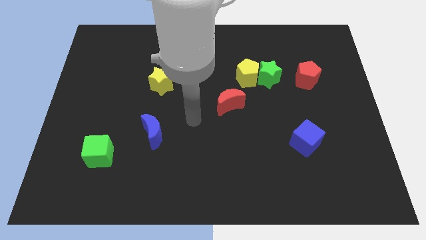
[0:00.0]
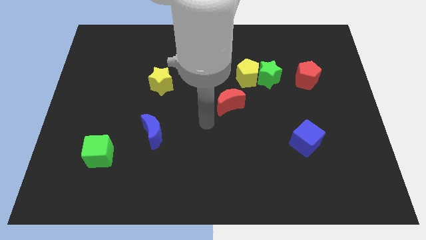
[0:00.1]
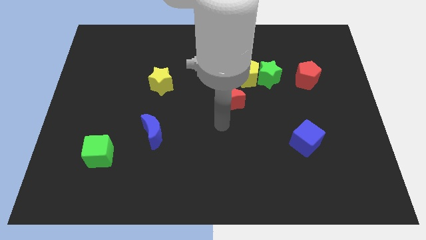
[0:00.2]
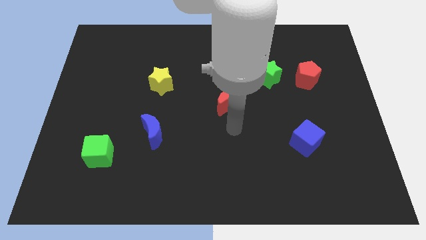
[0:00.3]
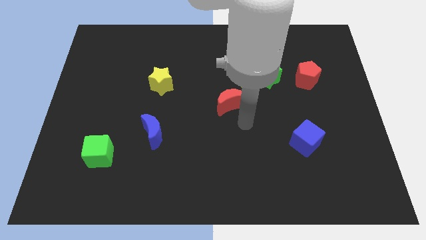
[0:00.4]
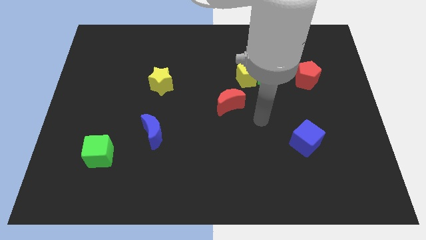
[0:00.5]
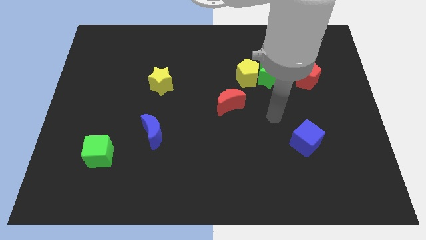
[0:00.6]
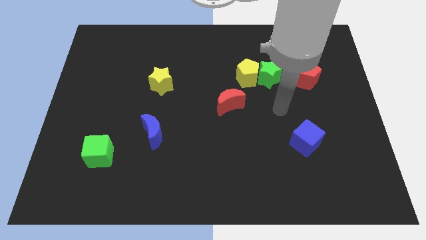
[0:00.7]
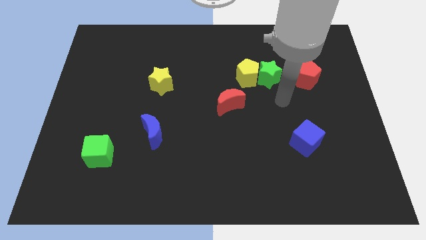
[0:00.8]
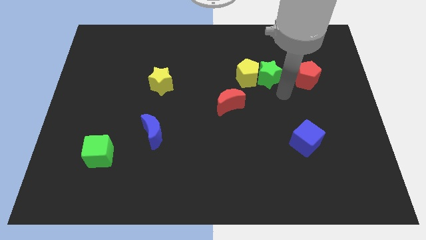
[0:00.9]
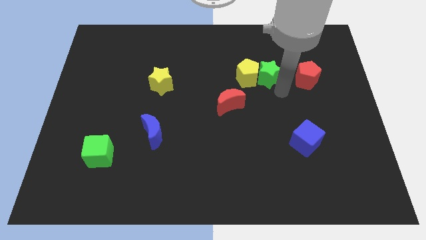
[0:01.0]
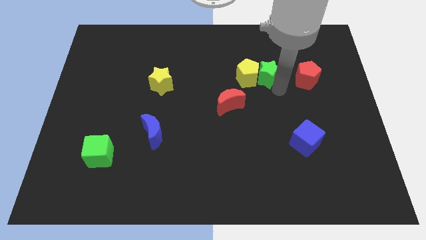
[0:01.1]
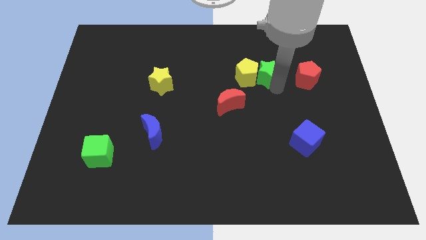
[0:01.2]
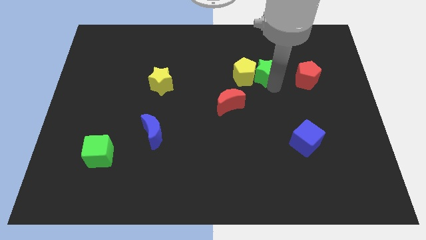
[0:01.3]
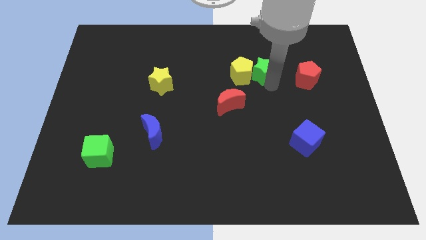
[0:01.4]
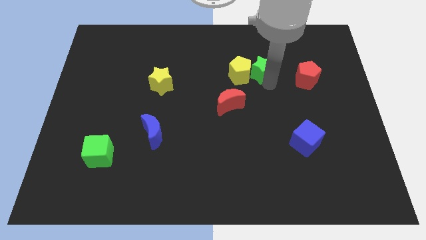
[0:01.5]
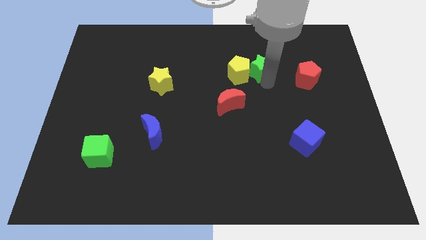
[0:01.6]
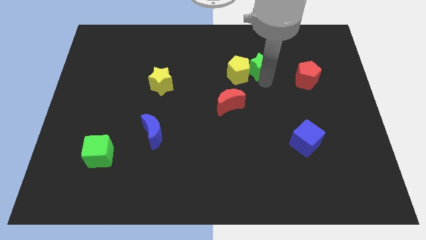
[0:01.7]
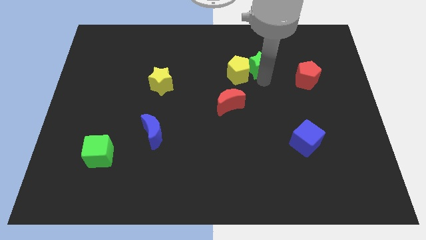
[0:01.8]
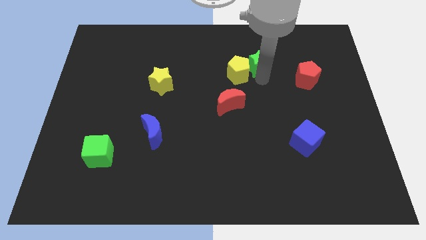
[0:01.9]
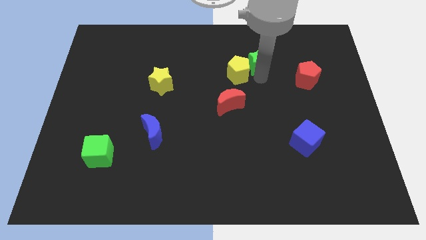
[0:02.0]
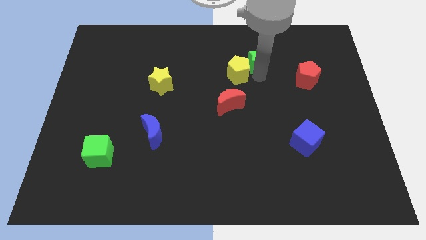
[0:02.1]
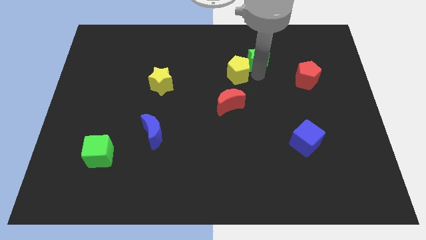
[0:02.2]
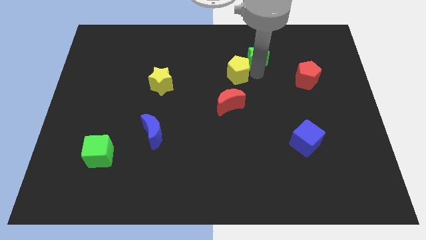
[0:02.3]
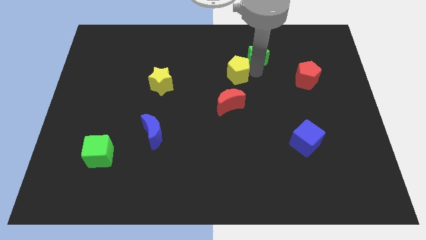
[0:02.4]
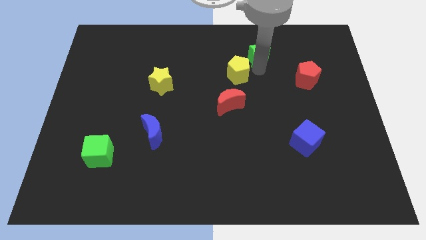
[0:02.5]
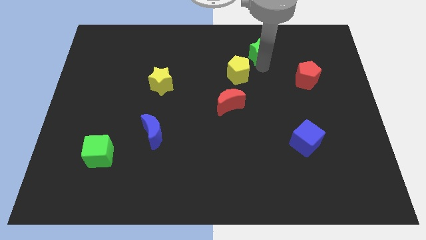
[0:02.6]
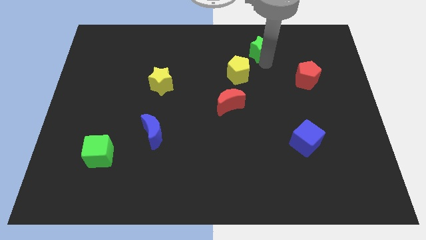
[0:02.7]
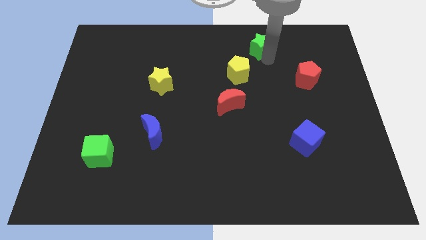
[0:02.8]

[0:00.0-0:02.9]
separate the green star from the yellow pentagon and red pentagon

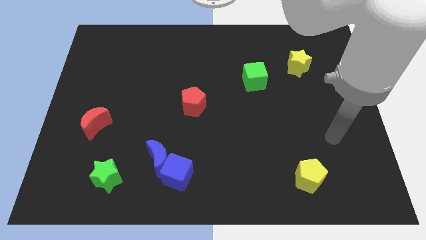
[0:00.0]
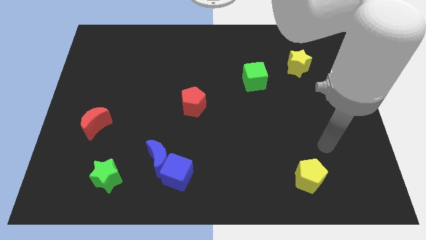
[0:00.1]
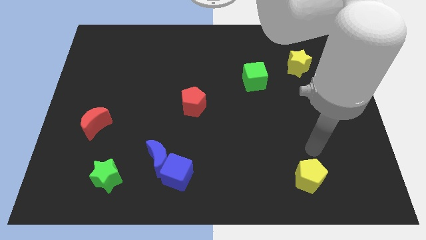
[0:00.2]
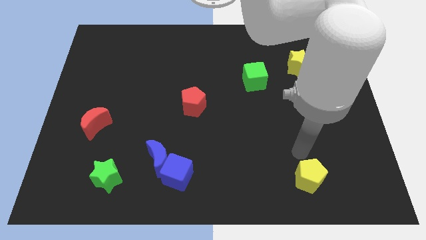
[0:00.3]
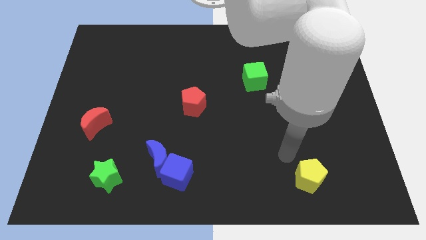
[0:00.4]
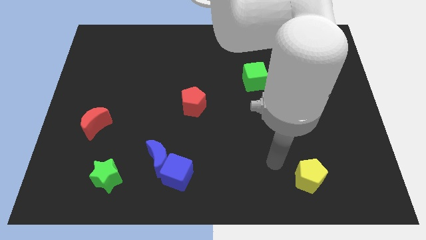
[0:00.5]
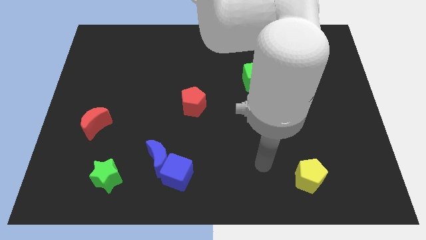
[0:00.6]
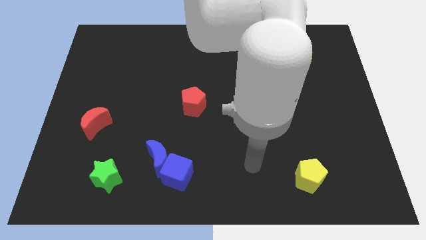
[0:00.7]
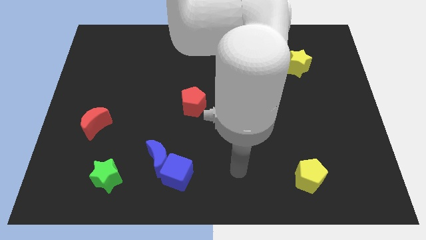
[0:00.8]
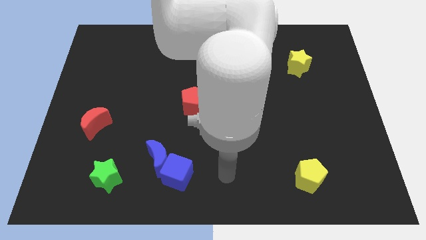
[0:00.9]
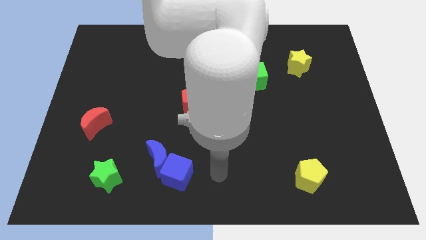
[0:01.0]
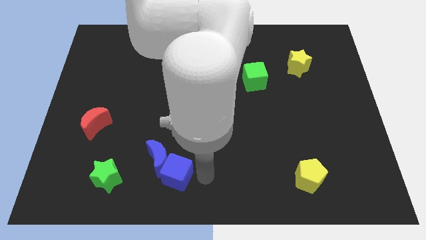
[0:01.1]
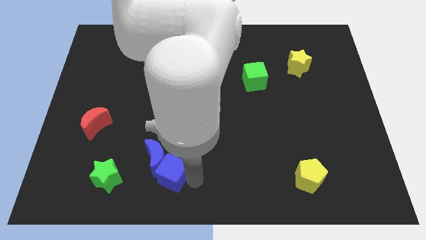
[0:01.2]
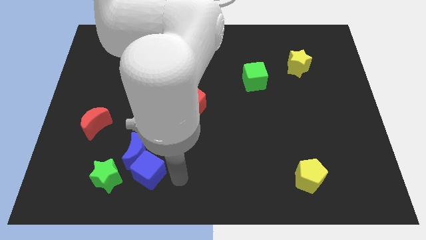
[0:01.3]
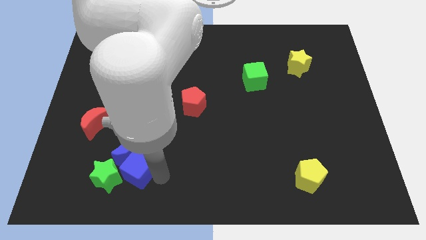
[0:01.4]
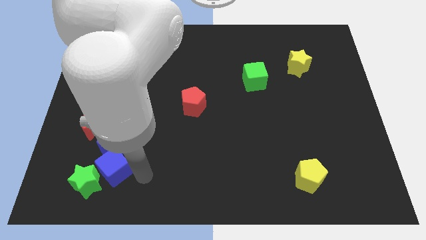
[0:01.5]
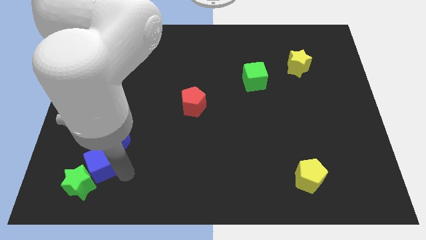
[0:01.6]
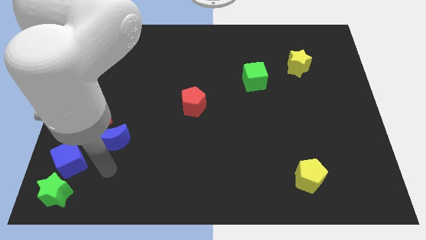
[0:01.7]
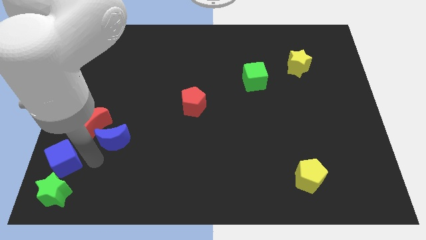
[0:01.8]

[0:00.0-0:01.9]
move the blue moon away from the blue cube

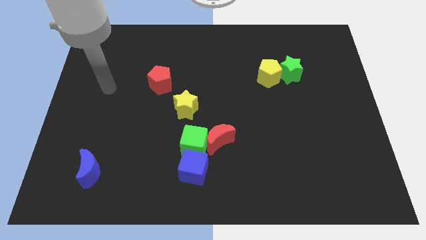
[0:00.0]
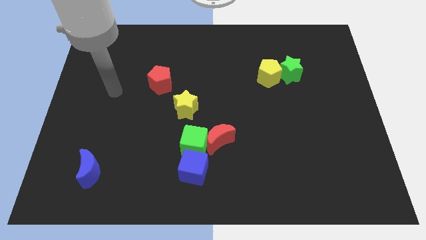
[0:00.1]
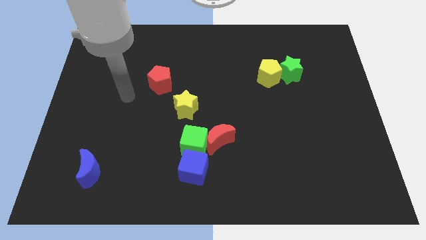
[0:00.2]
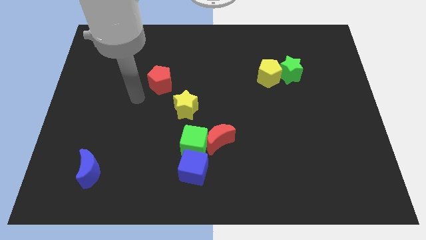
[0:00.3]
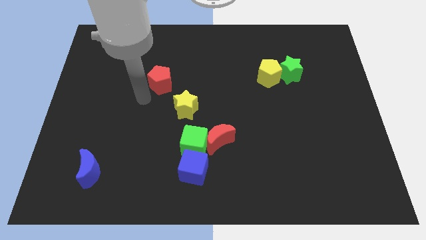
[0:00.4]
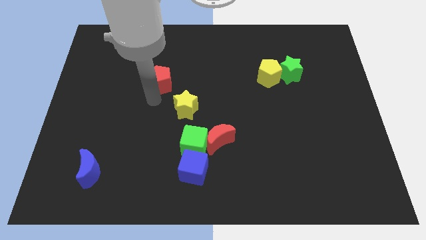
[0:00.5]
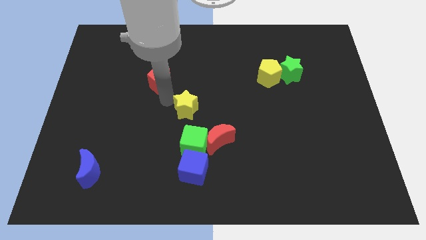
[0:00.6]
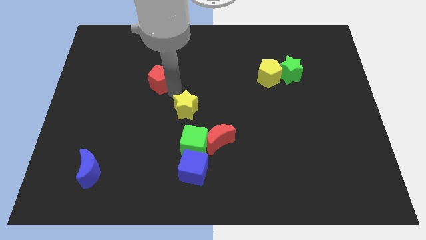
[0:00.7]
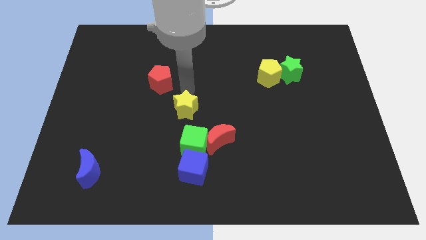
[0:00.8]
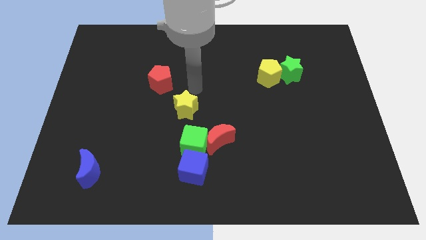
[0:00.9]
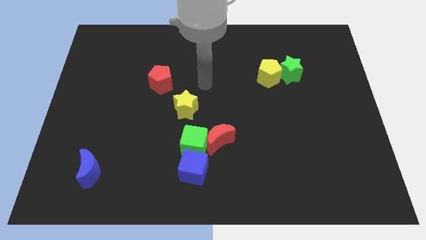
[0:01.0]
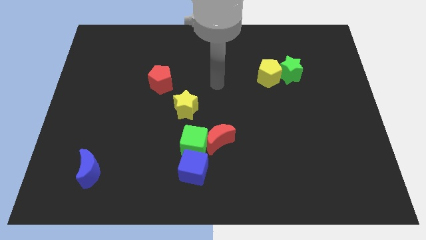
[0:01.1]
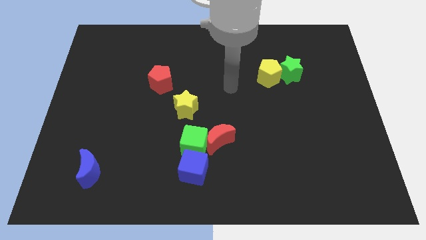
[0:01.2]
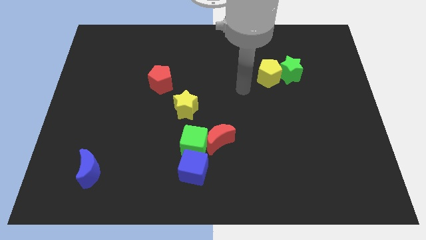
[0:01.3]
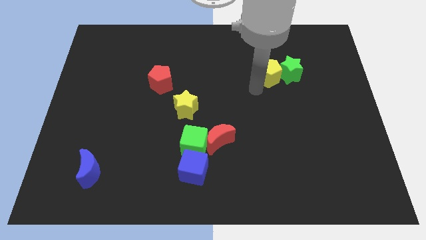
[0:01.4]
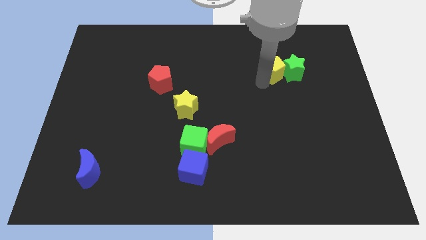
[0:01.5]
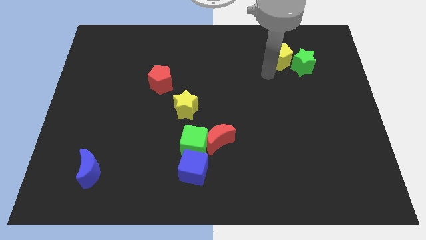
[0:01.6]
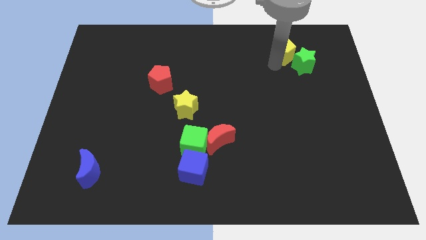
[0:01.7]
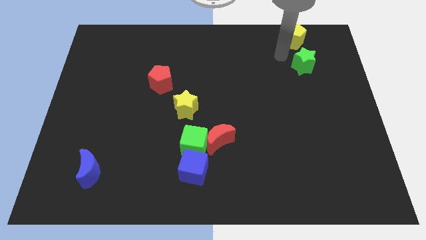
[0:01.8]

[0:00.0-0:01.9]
separate the green star from the yellow pentagon

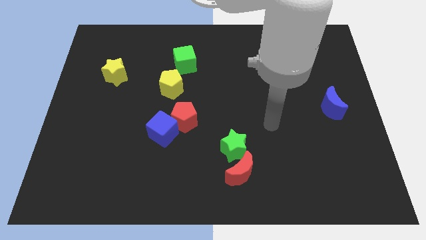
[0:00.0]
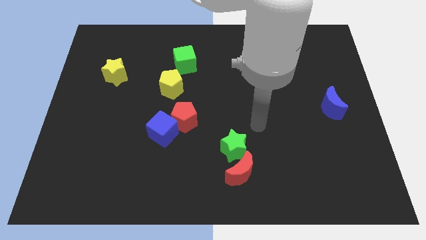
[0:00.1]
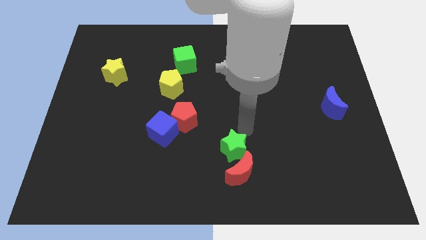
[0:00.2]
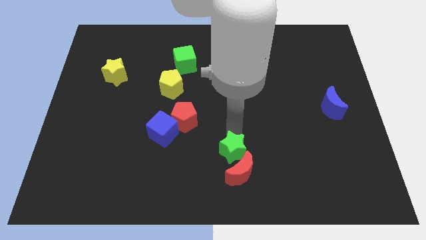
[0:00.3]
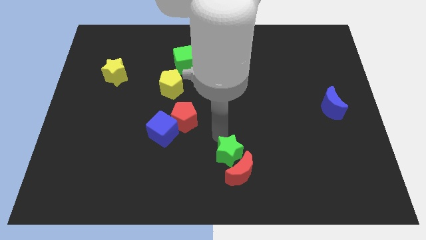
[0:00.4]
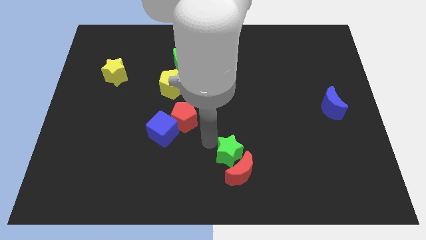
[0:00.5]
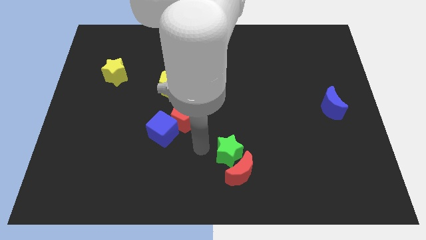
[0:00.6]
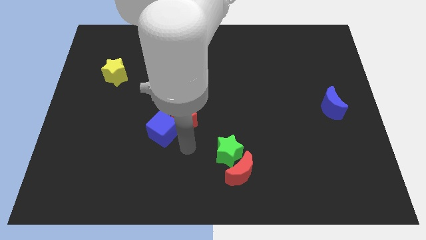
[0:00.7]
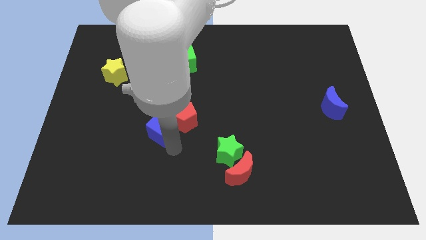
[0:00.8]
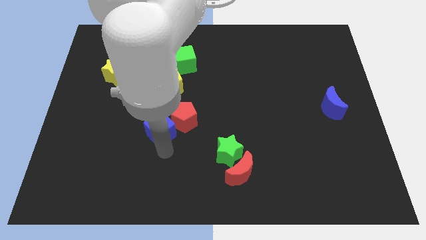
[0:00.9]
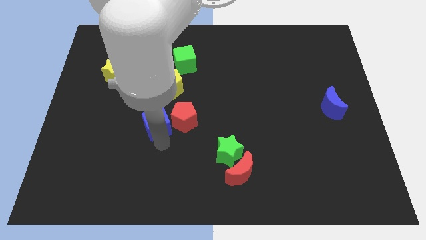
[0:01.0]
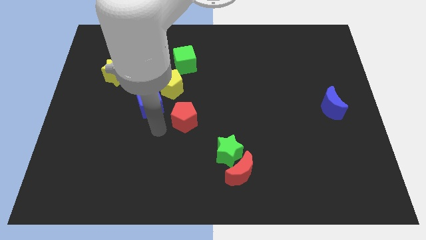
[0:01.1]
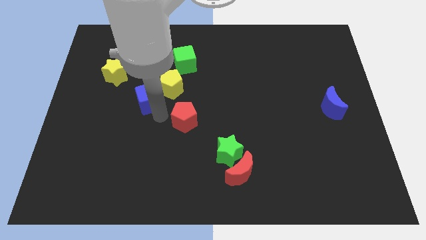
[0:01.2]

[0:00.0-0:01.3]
move the red pentagon away from the blue cube

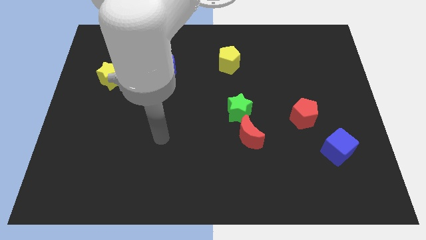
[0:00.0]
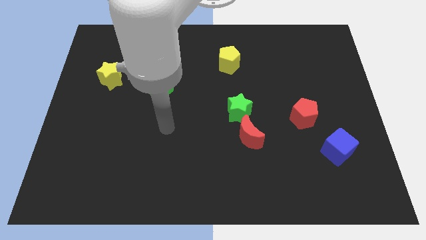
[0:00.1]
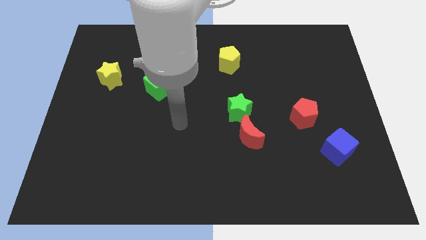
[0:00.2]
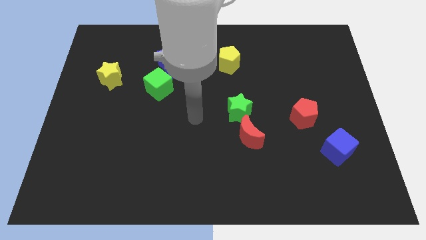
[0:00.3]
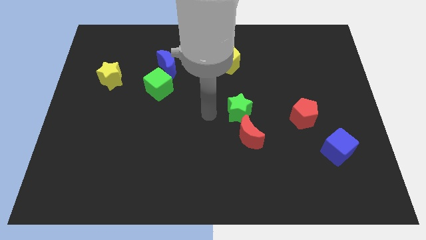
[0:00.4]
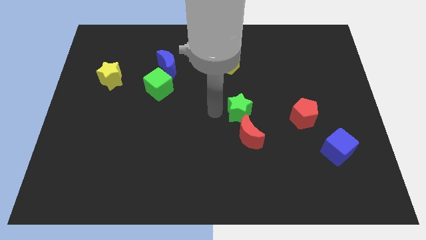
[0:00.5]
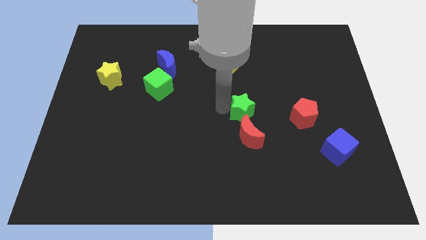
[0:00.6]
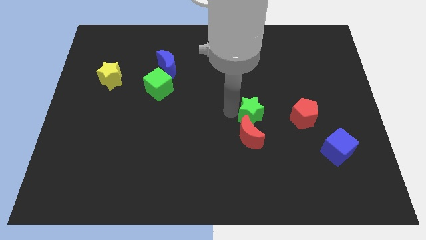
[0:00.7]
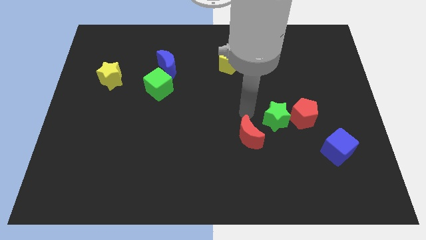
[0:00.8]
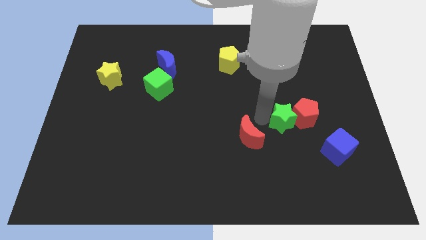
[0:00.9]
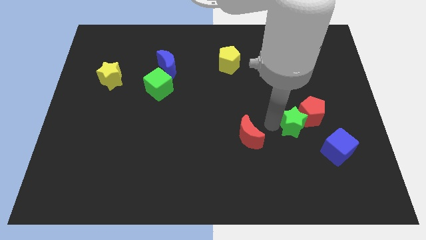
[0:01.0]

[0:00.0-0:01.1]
move the red moon away from the green star

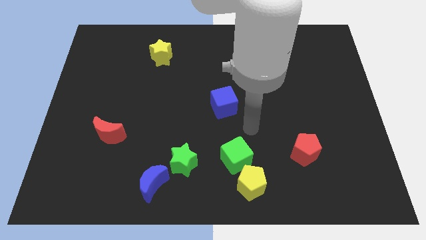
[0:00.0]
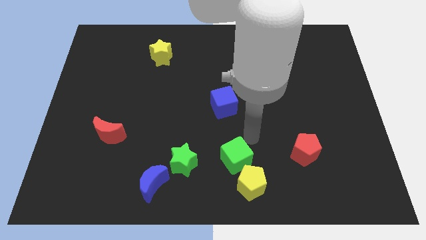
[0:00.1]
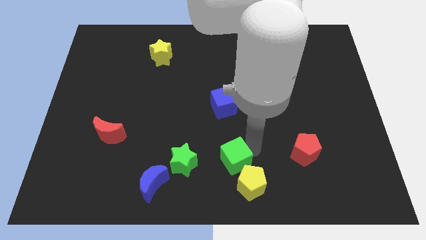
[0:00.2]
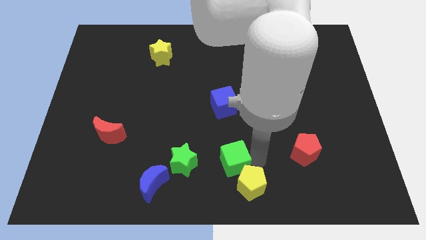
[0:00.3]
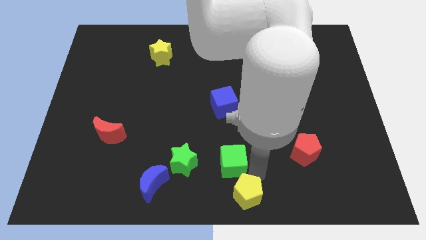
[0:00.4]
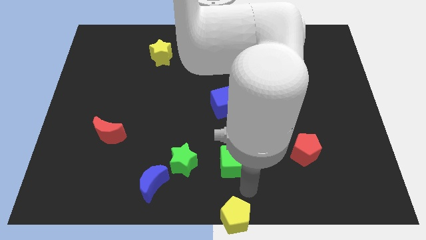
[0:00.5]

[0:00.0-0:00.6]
move the green cube away from the yellow pentagon
